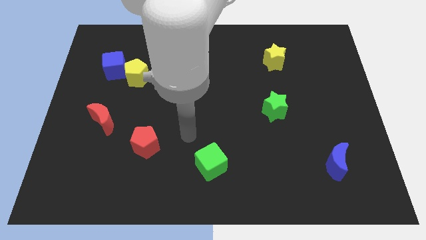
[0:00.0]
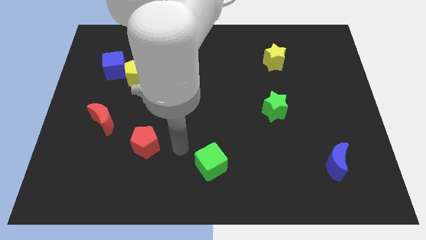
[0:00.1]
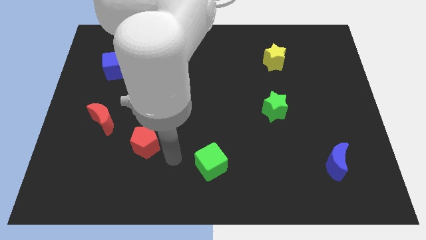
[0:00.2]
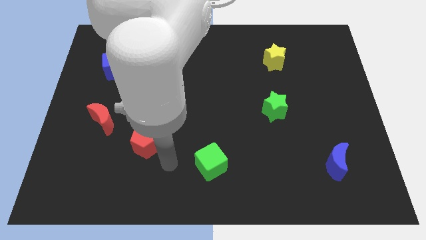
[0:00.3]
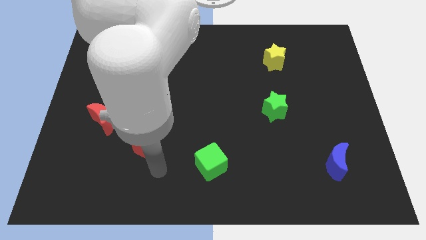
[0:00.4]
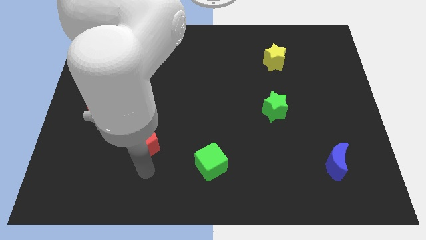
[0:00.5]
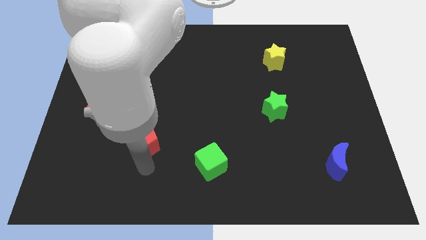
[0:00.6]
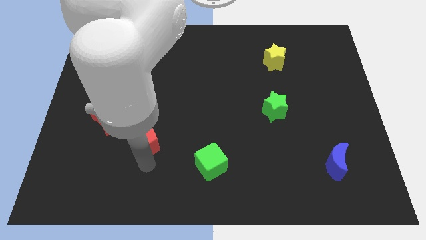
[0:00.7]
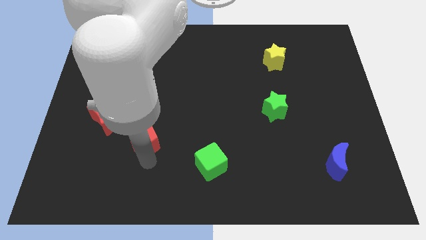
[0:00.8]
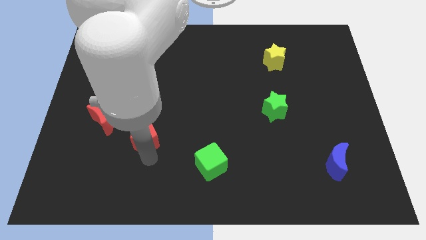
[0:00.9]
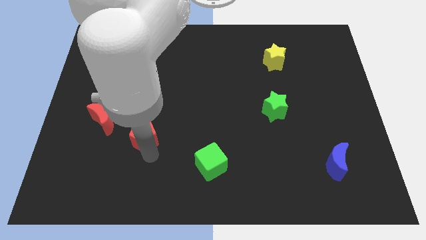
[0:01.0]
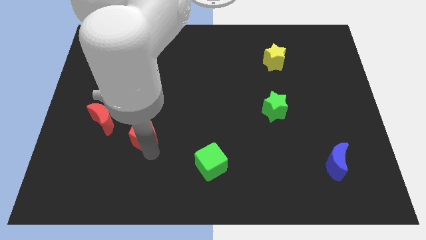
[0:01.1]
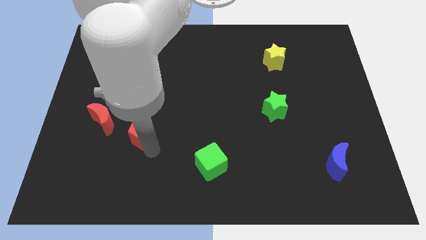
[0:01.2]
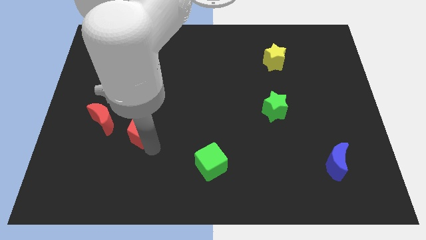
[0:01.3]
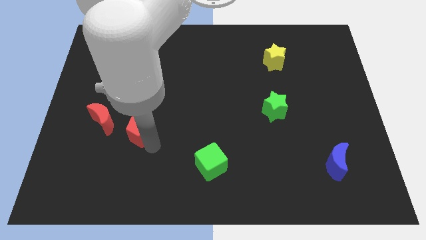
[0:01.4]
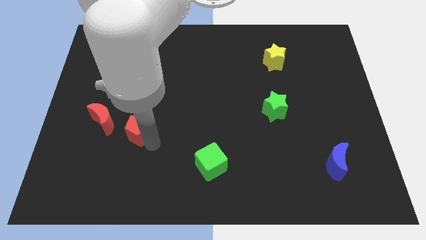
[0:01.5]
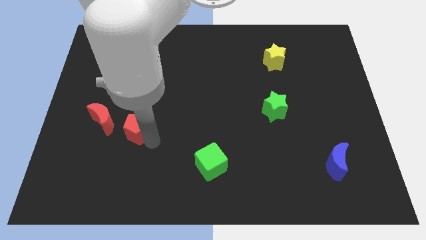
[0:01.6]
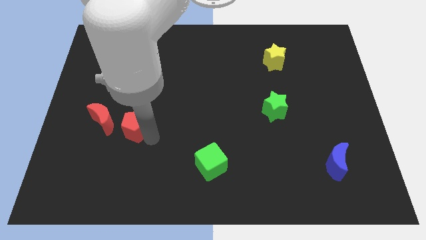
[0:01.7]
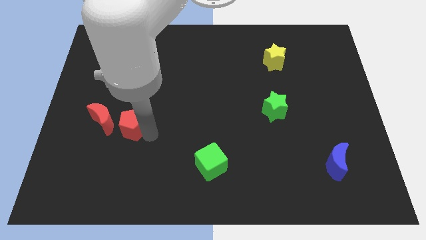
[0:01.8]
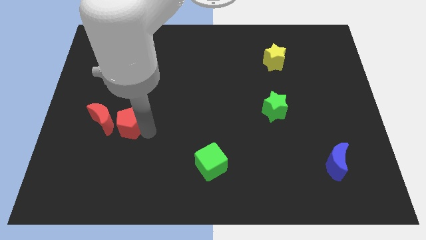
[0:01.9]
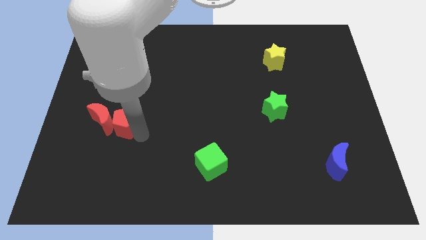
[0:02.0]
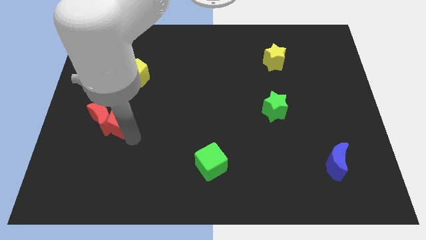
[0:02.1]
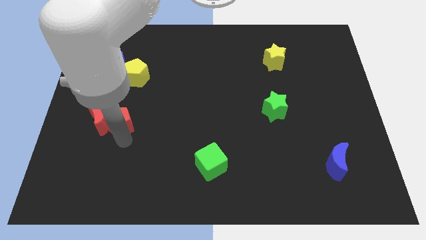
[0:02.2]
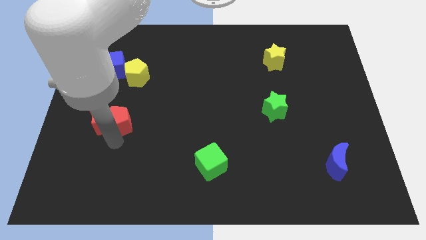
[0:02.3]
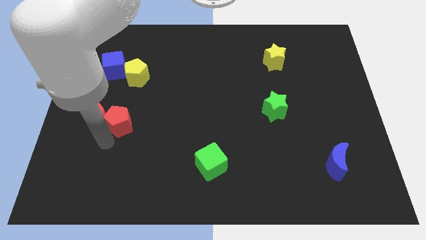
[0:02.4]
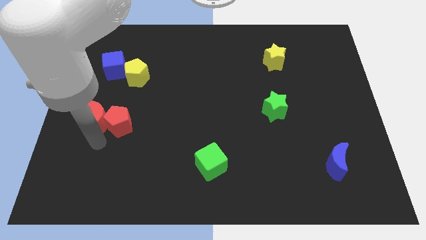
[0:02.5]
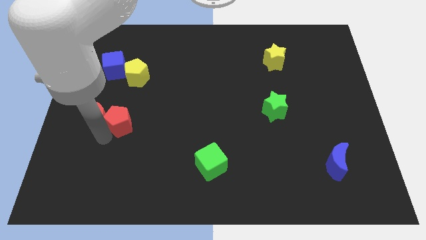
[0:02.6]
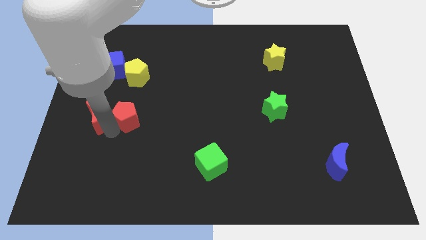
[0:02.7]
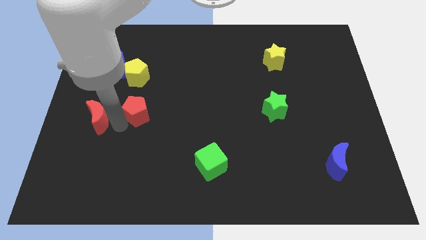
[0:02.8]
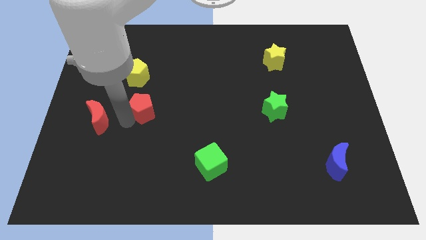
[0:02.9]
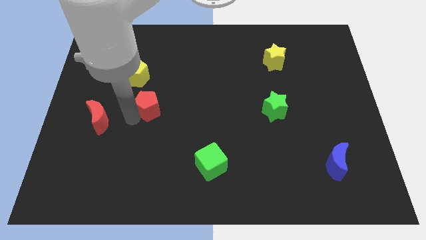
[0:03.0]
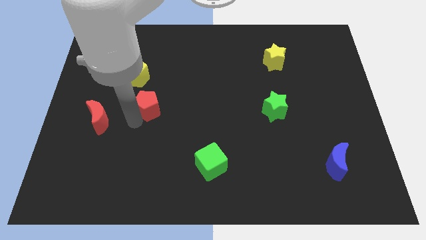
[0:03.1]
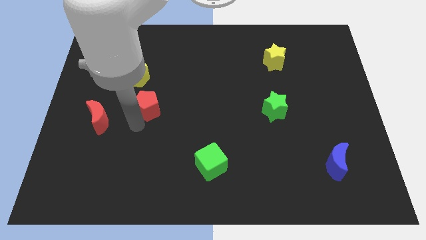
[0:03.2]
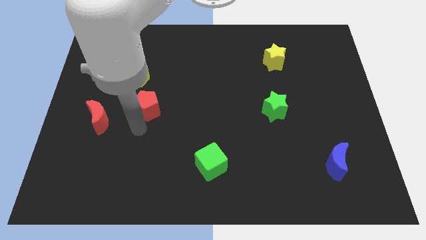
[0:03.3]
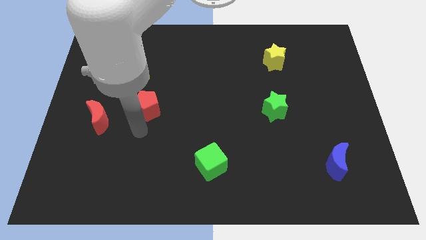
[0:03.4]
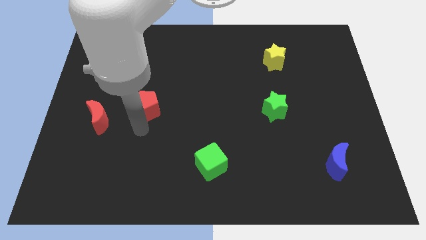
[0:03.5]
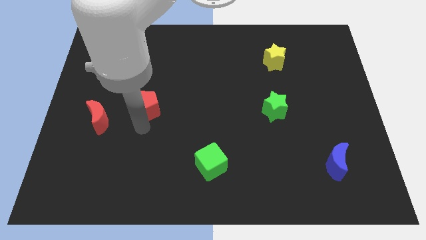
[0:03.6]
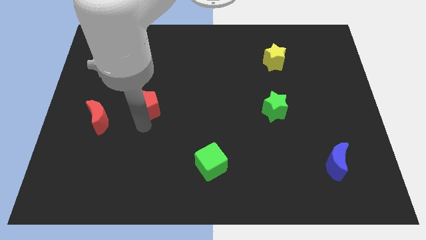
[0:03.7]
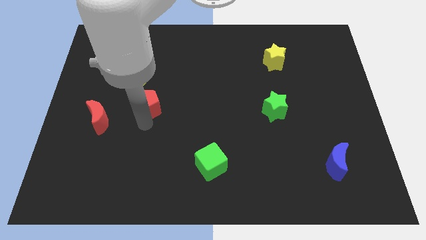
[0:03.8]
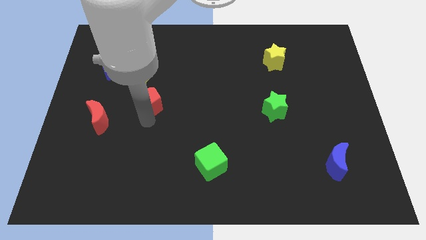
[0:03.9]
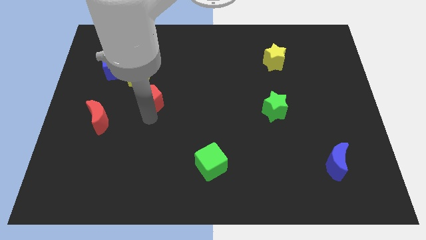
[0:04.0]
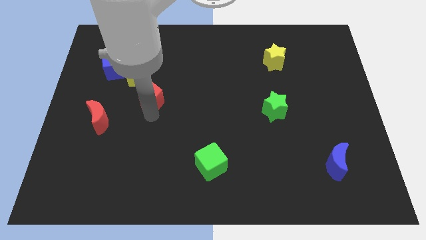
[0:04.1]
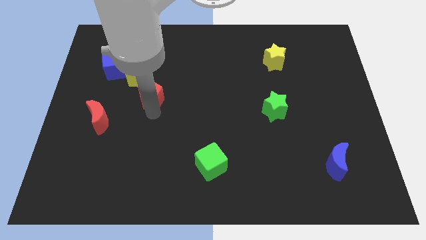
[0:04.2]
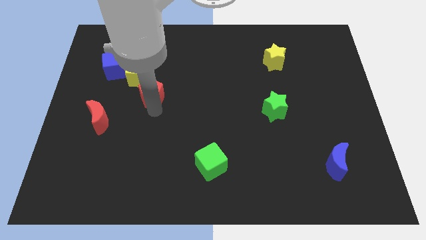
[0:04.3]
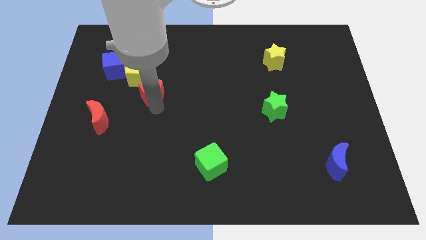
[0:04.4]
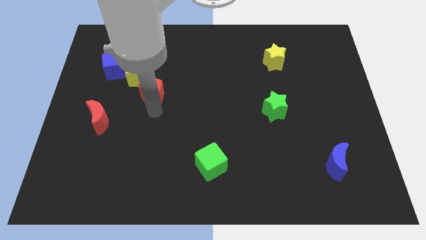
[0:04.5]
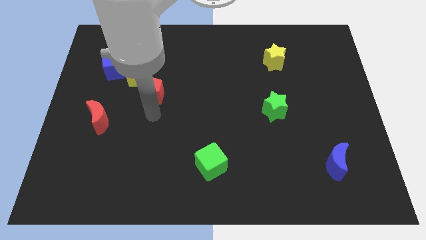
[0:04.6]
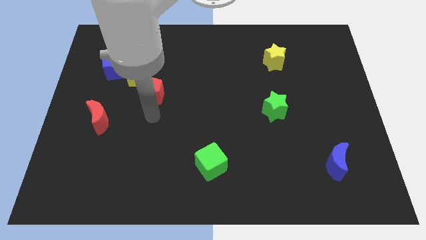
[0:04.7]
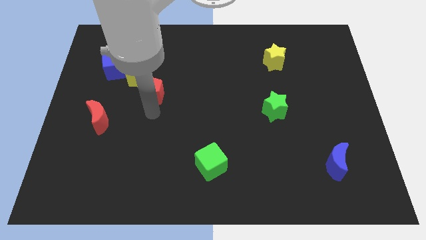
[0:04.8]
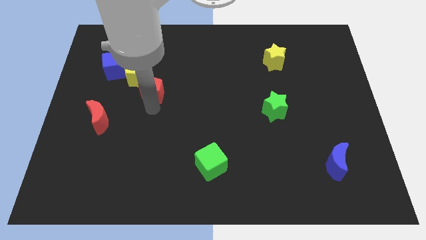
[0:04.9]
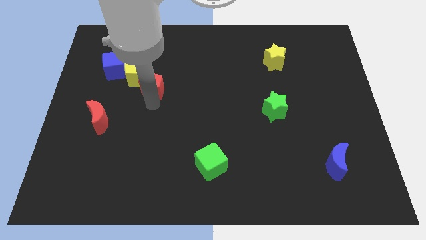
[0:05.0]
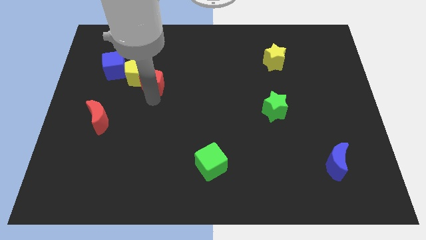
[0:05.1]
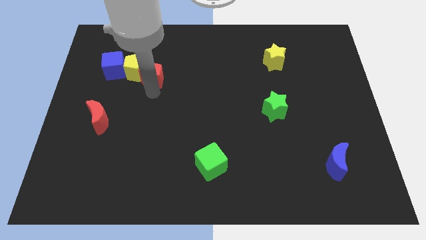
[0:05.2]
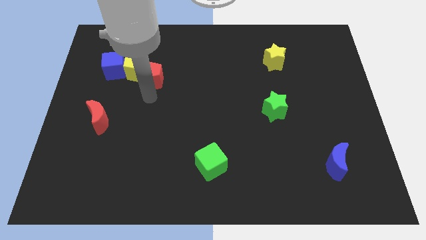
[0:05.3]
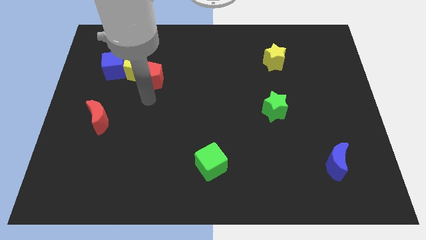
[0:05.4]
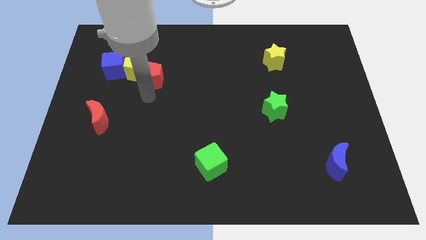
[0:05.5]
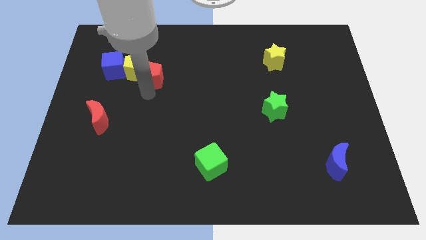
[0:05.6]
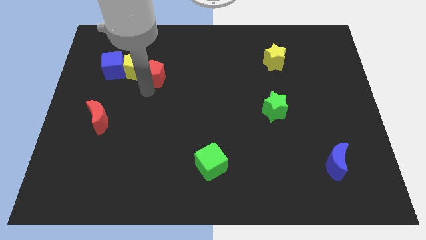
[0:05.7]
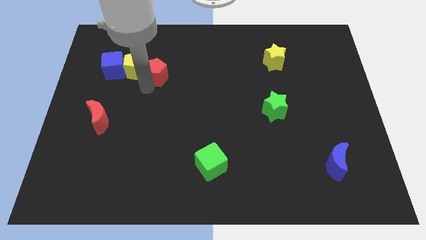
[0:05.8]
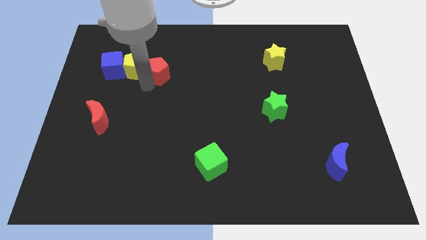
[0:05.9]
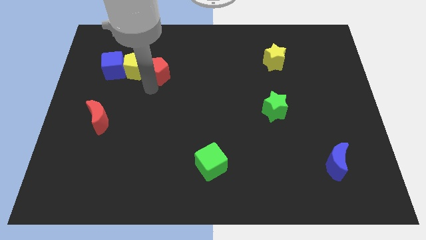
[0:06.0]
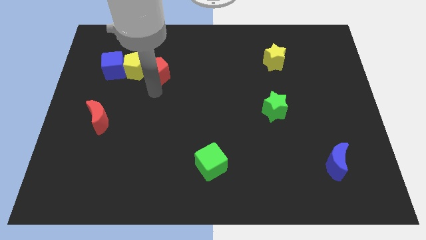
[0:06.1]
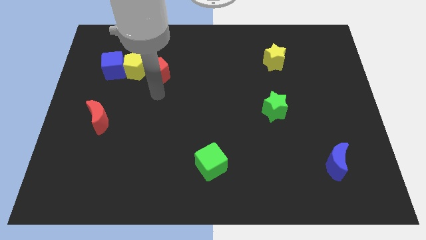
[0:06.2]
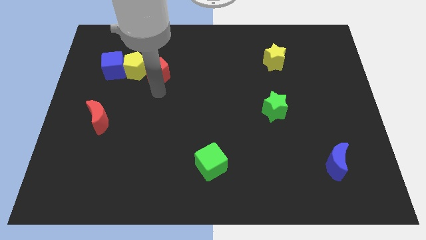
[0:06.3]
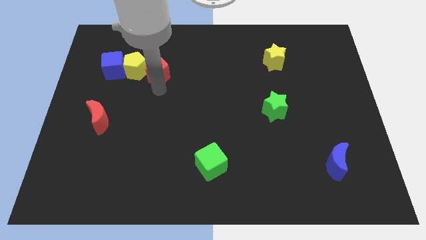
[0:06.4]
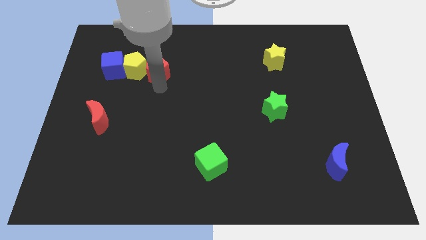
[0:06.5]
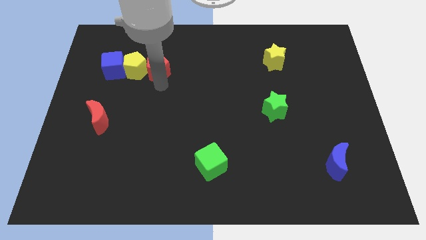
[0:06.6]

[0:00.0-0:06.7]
put the red pentagon to the top right of the yellow pentagon

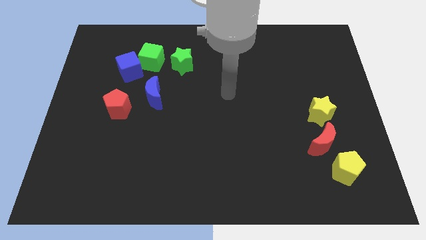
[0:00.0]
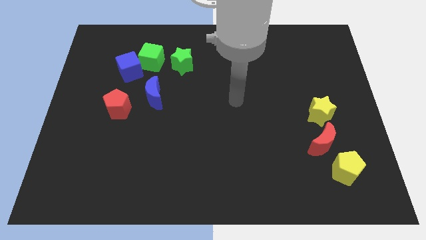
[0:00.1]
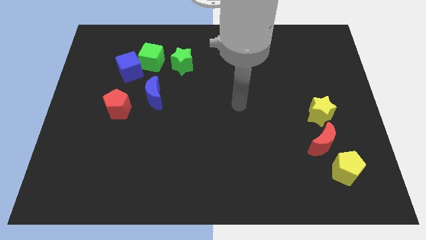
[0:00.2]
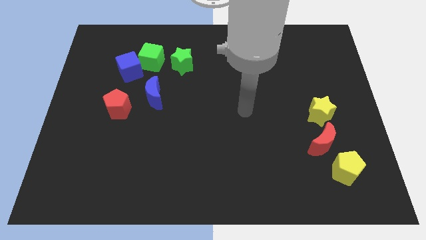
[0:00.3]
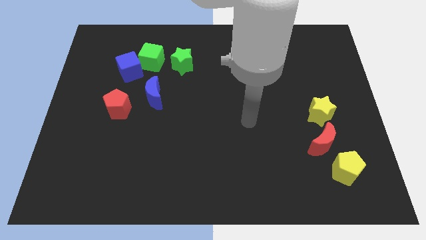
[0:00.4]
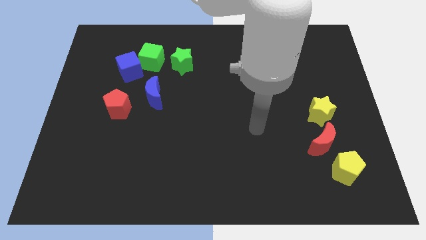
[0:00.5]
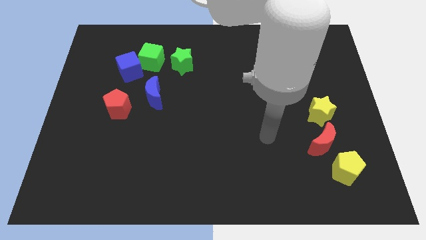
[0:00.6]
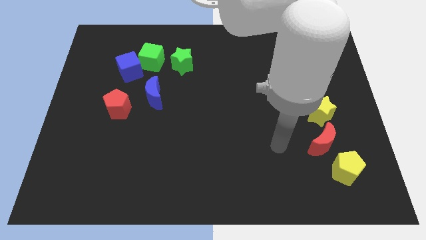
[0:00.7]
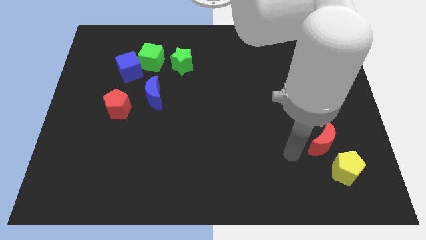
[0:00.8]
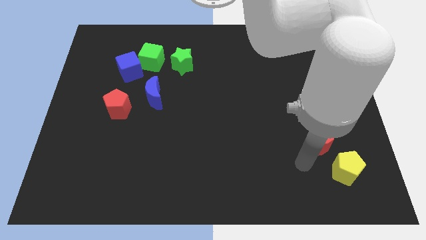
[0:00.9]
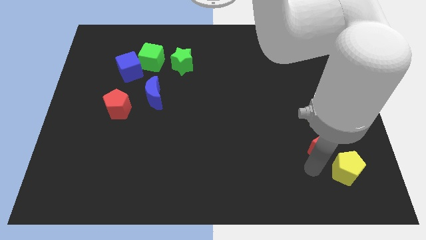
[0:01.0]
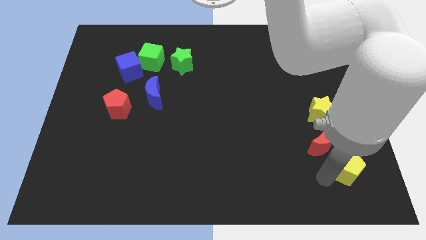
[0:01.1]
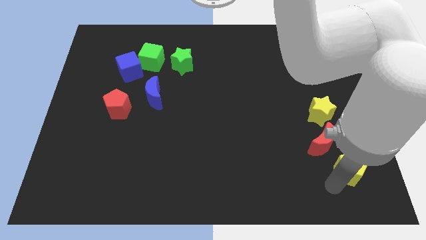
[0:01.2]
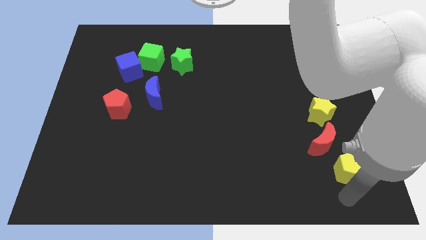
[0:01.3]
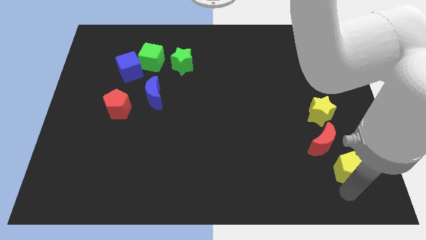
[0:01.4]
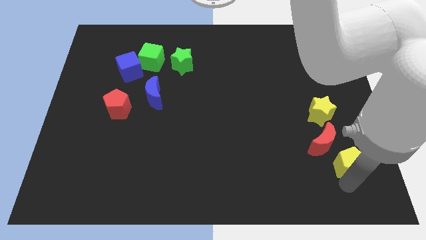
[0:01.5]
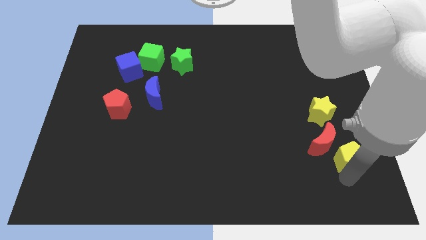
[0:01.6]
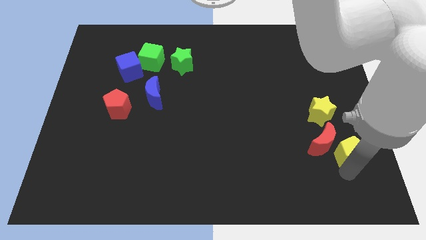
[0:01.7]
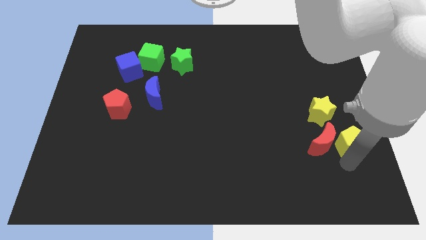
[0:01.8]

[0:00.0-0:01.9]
slide the yellow pentagon to the top right of the red moon
